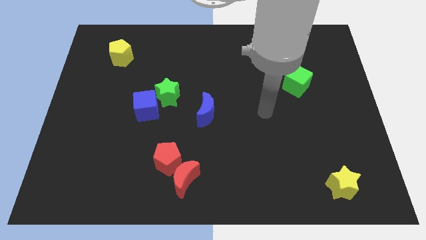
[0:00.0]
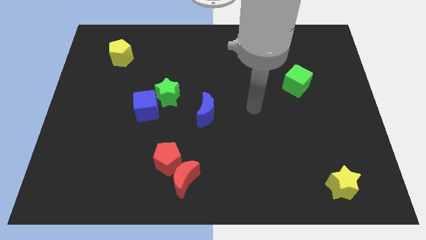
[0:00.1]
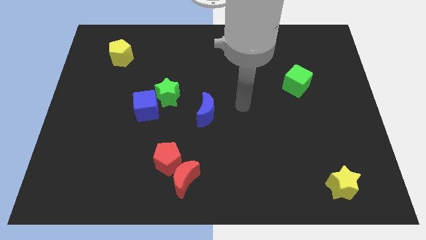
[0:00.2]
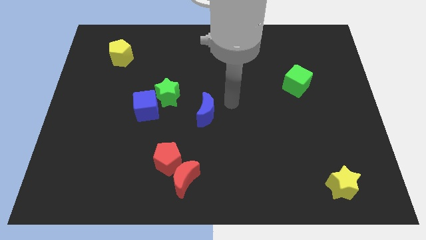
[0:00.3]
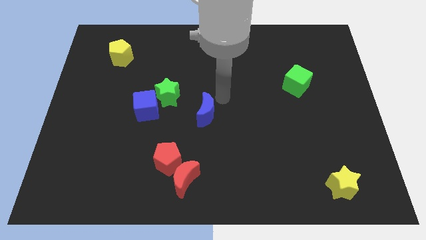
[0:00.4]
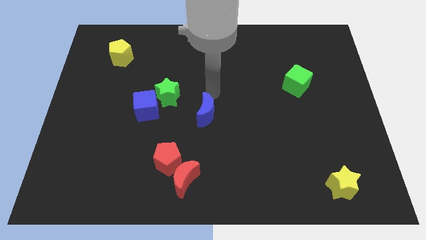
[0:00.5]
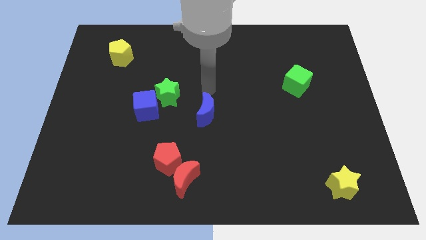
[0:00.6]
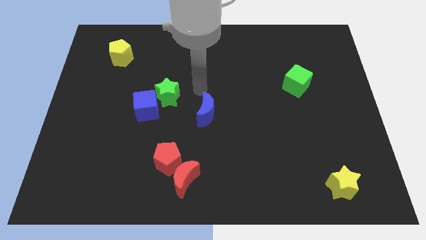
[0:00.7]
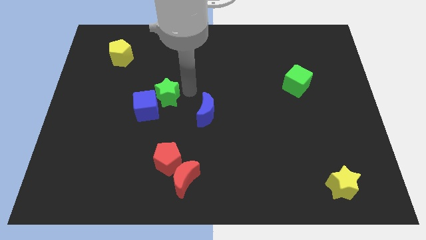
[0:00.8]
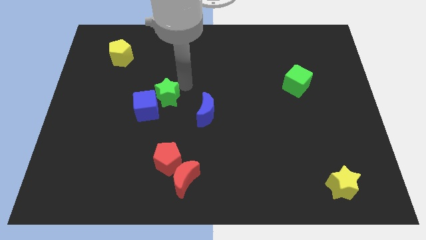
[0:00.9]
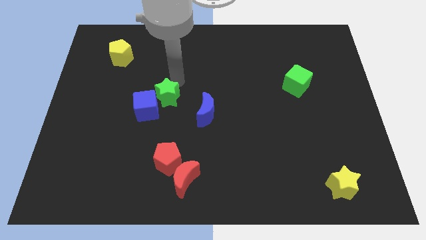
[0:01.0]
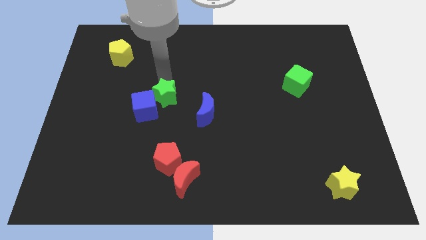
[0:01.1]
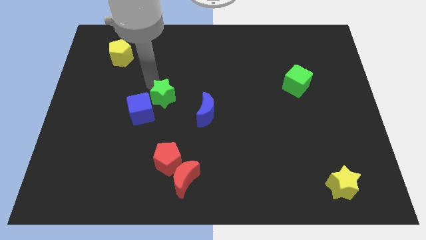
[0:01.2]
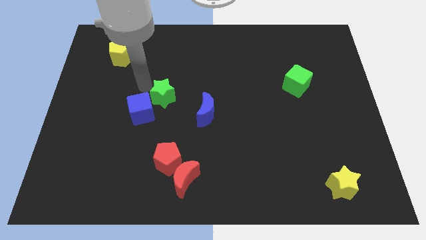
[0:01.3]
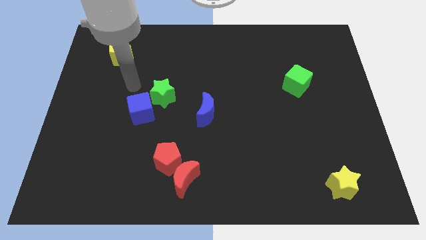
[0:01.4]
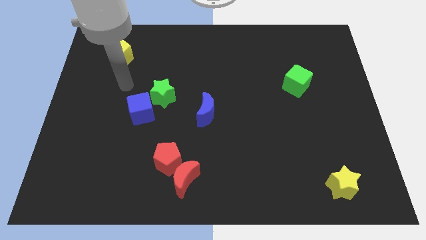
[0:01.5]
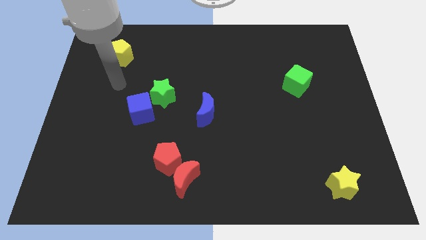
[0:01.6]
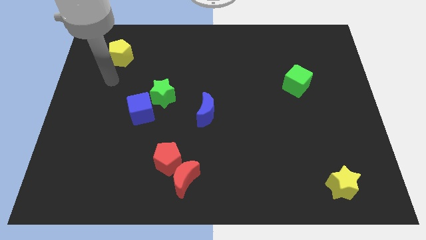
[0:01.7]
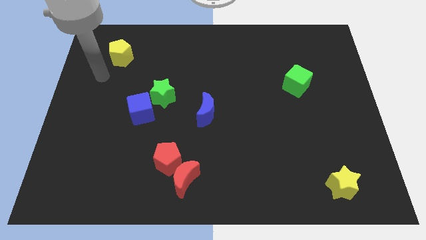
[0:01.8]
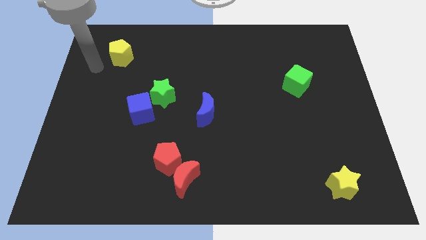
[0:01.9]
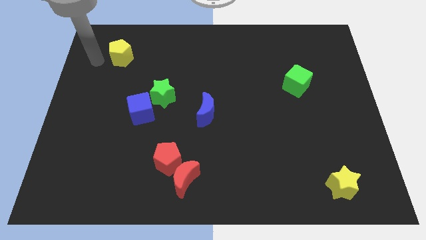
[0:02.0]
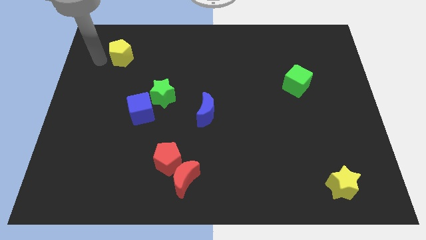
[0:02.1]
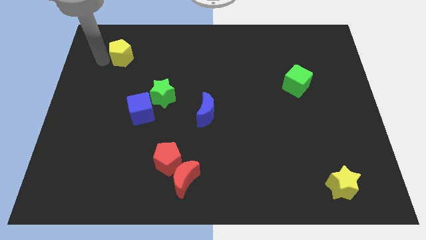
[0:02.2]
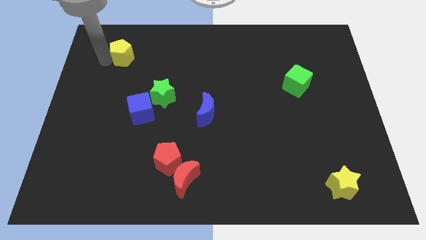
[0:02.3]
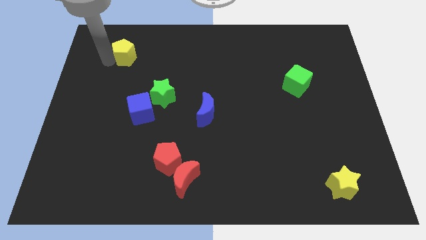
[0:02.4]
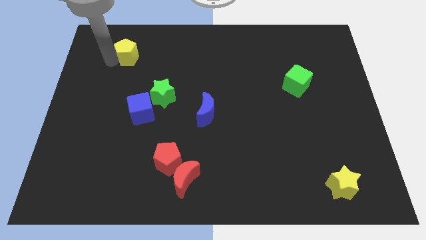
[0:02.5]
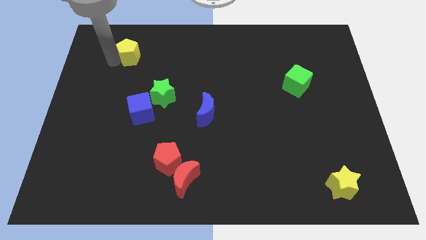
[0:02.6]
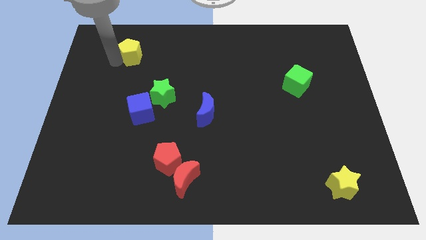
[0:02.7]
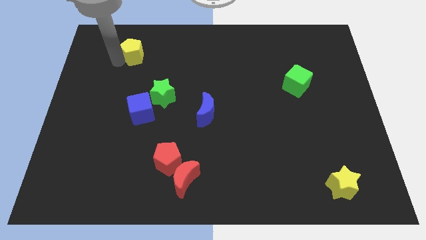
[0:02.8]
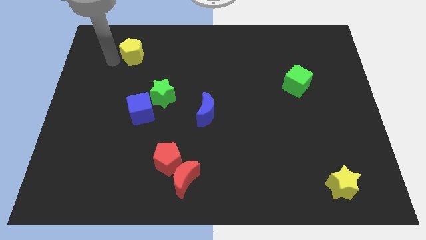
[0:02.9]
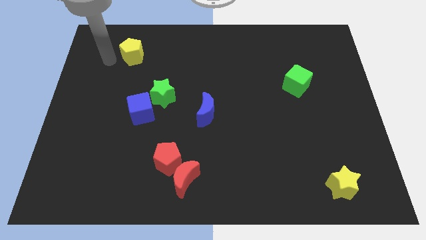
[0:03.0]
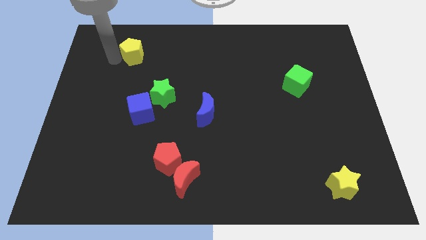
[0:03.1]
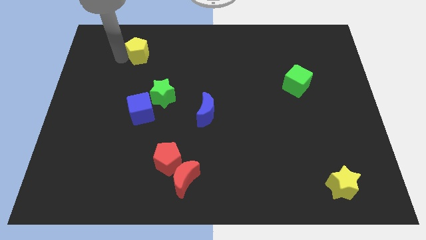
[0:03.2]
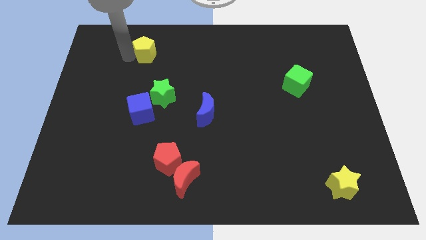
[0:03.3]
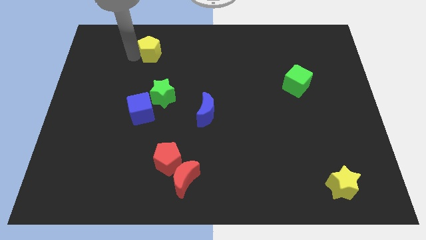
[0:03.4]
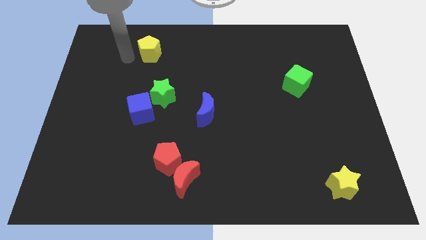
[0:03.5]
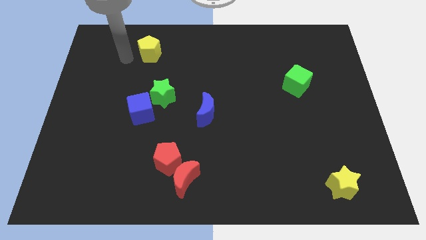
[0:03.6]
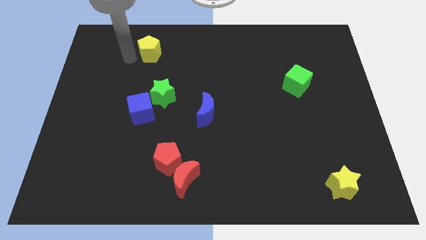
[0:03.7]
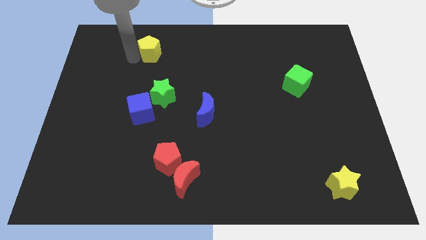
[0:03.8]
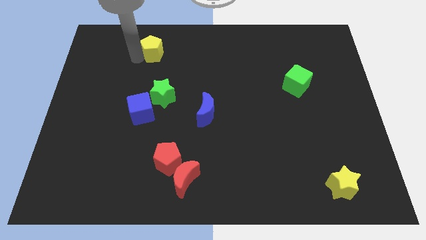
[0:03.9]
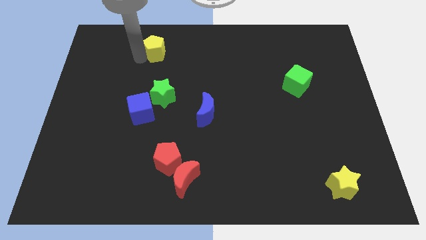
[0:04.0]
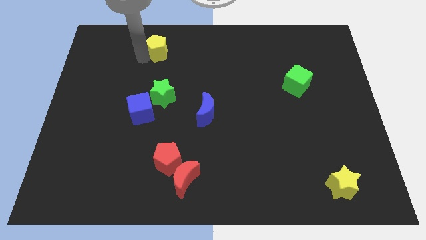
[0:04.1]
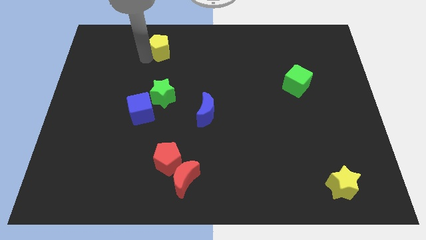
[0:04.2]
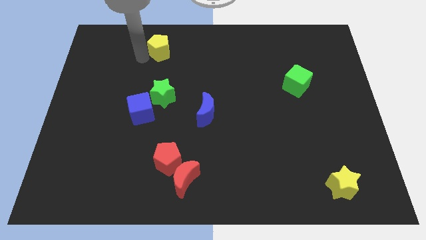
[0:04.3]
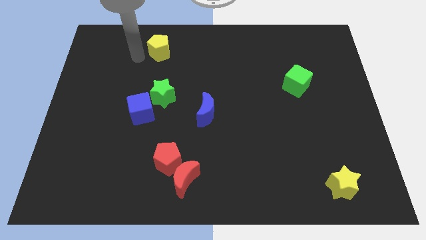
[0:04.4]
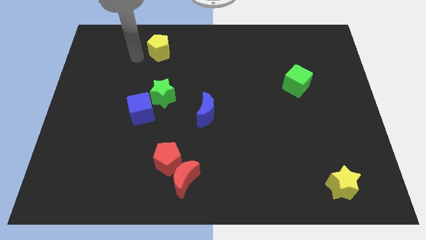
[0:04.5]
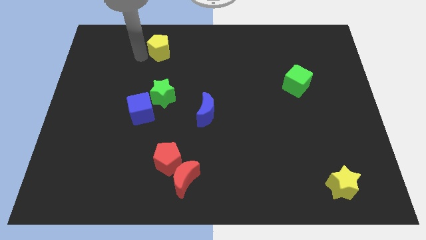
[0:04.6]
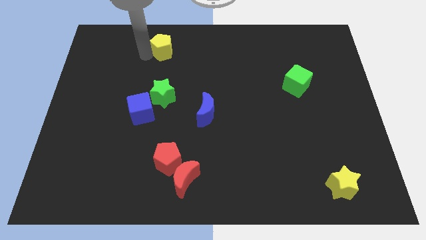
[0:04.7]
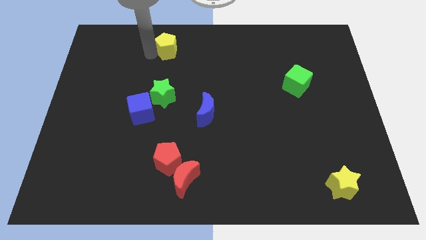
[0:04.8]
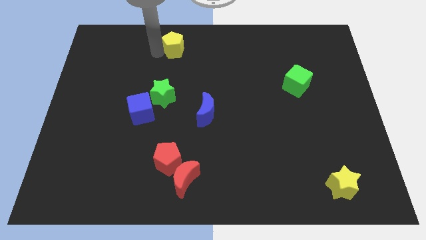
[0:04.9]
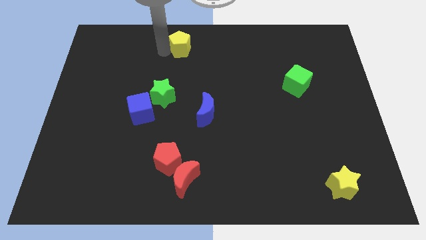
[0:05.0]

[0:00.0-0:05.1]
slide the yellow pentagon to the top
